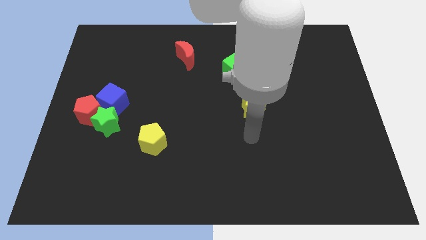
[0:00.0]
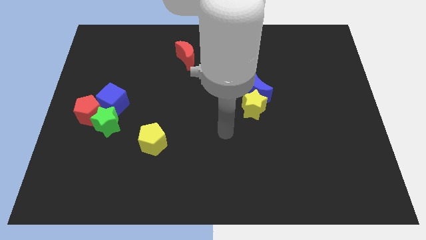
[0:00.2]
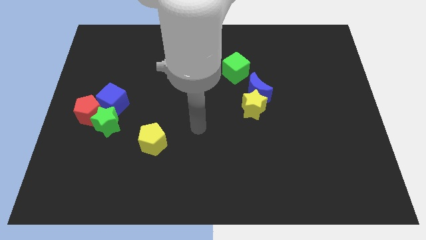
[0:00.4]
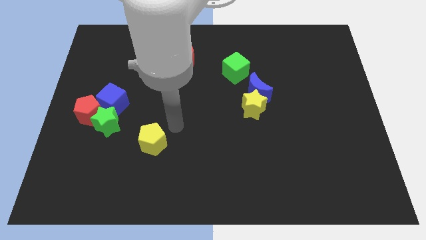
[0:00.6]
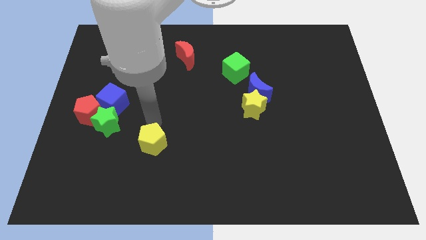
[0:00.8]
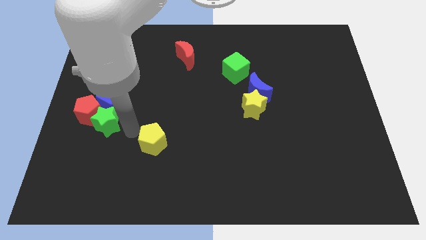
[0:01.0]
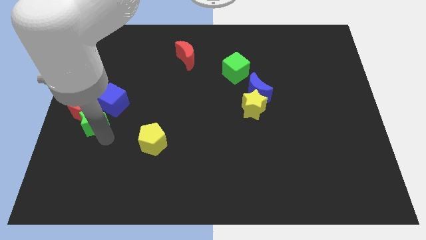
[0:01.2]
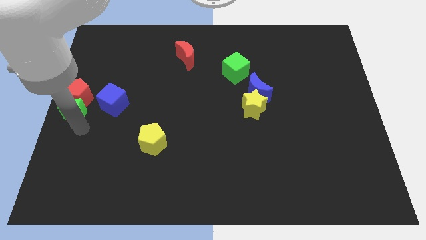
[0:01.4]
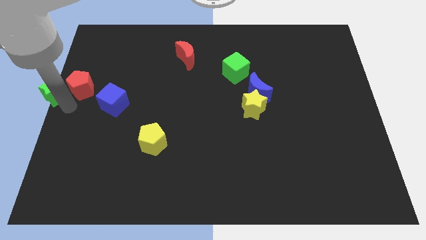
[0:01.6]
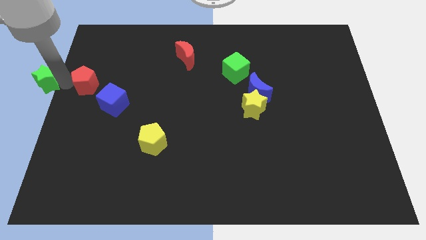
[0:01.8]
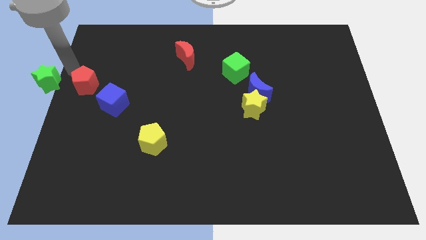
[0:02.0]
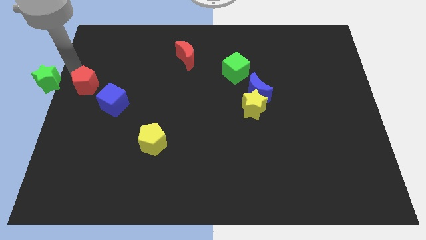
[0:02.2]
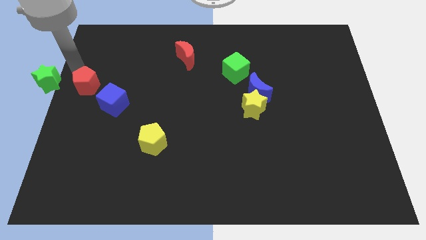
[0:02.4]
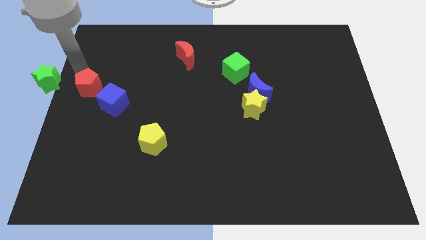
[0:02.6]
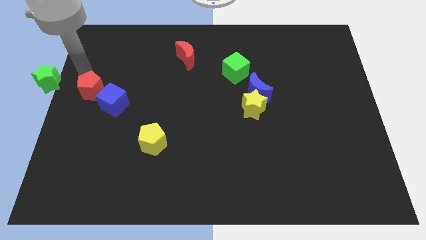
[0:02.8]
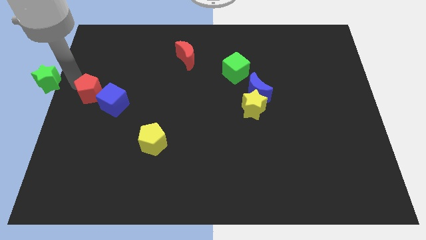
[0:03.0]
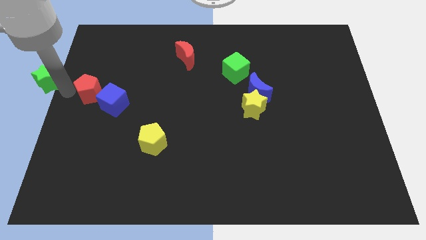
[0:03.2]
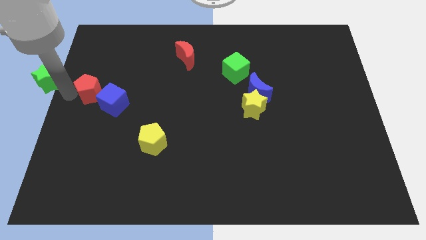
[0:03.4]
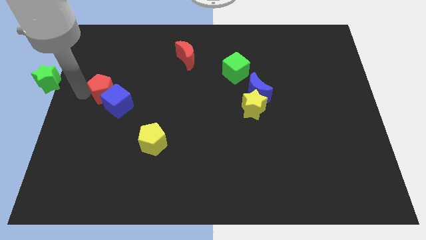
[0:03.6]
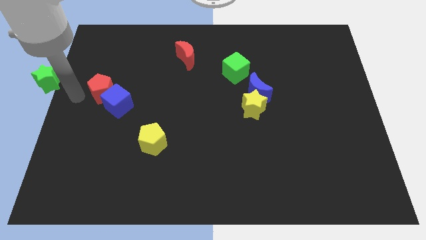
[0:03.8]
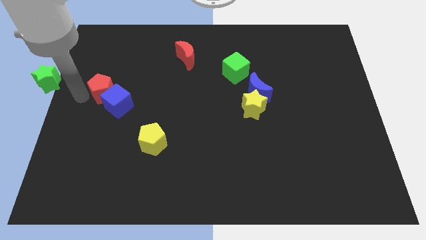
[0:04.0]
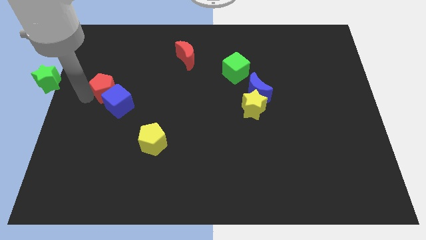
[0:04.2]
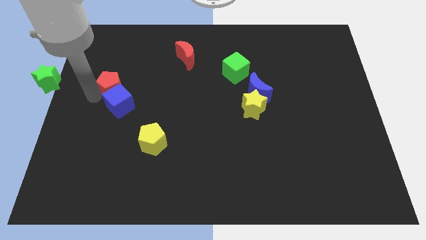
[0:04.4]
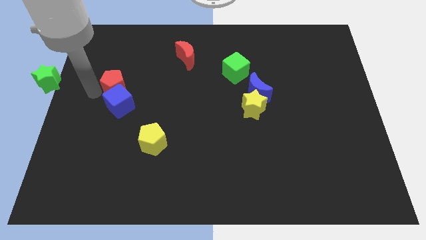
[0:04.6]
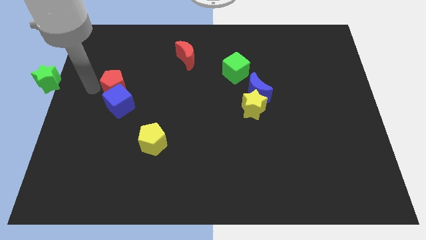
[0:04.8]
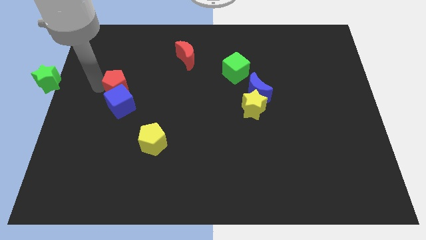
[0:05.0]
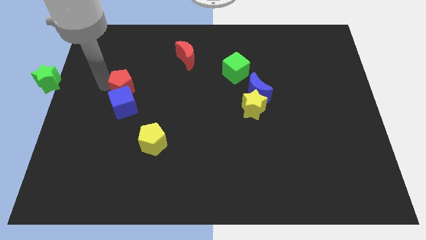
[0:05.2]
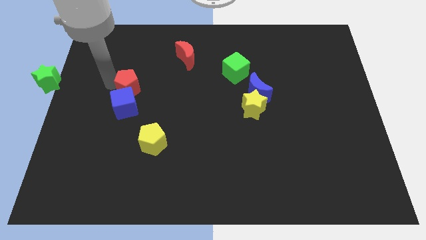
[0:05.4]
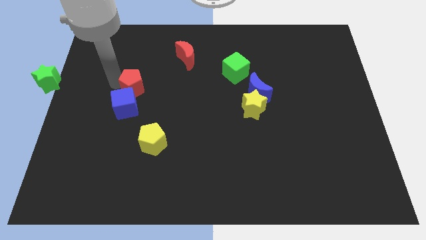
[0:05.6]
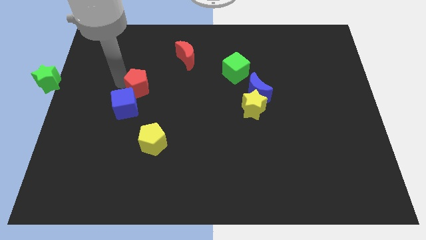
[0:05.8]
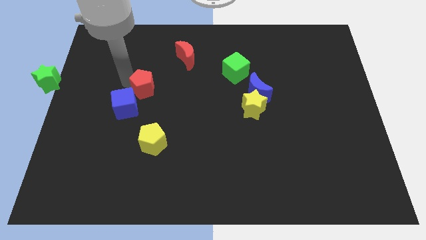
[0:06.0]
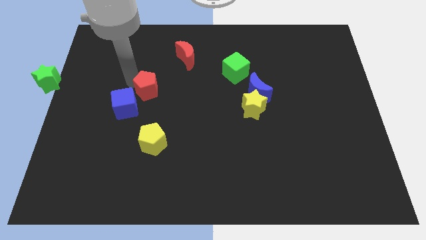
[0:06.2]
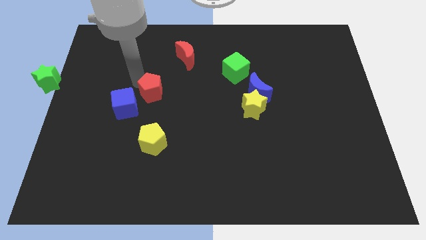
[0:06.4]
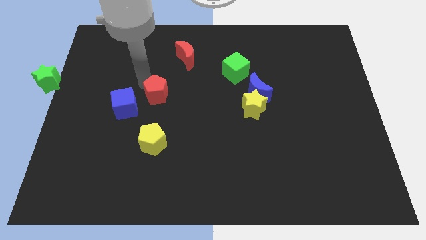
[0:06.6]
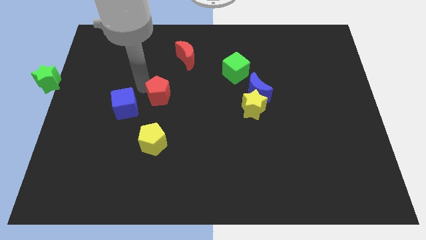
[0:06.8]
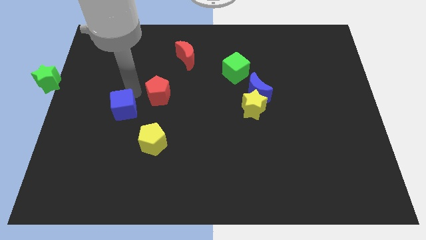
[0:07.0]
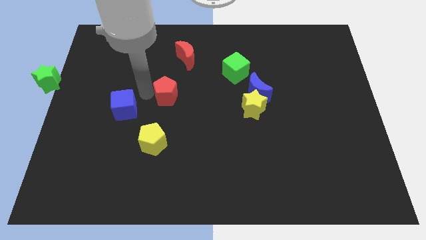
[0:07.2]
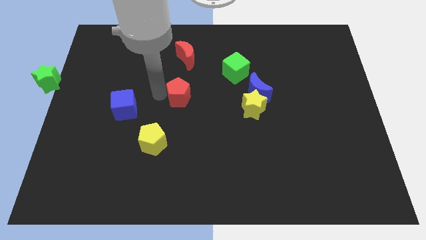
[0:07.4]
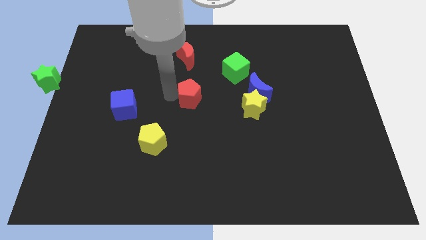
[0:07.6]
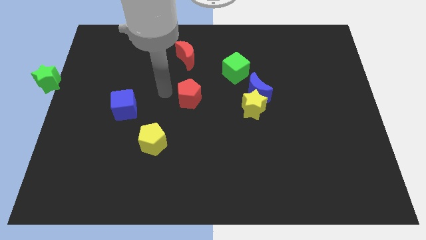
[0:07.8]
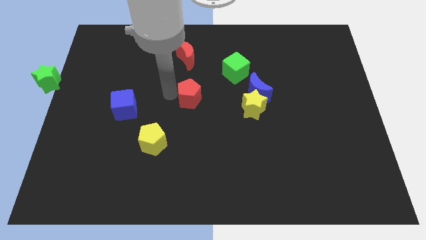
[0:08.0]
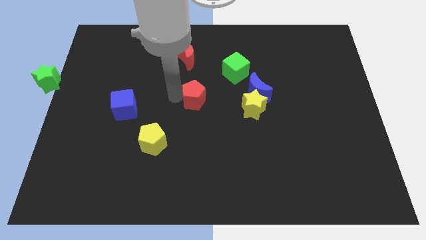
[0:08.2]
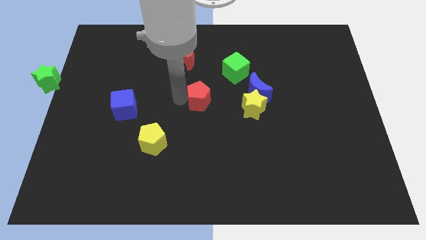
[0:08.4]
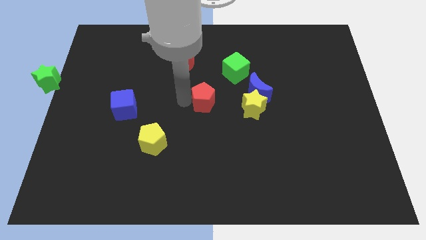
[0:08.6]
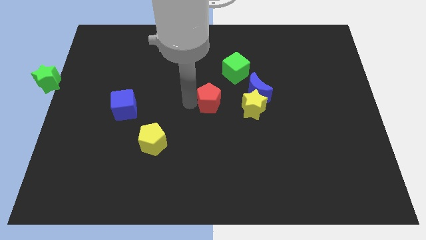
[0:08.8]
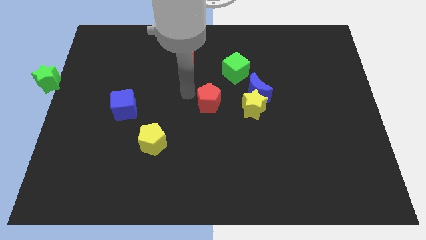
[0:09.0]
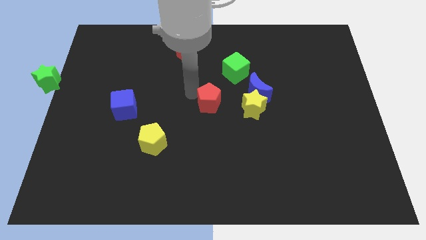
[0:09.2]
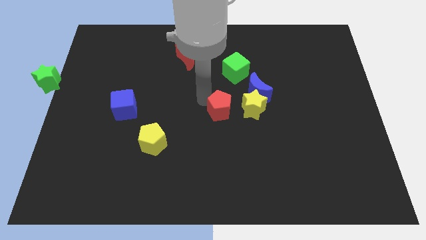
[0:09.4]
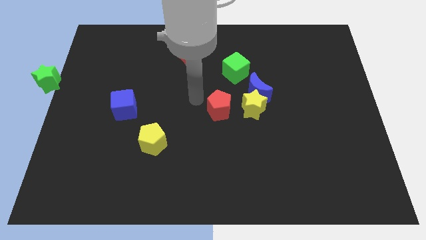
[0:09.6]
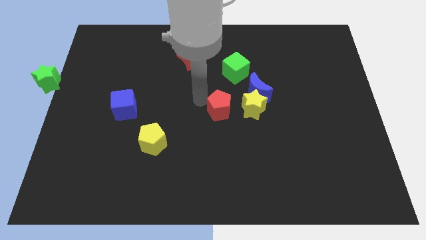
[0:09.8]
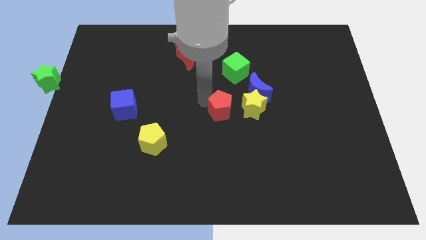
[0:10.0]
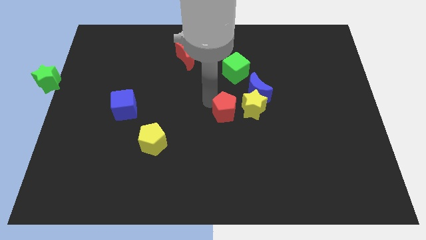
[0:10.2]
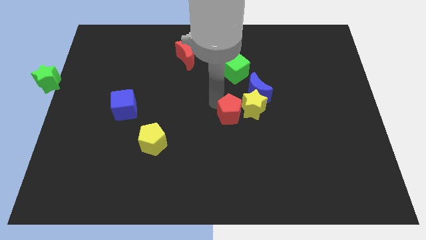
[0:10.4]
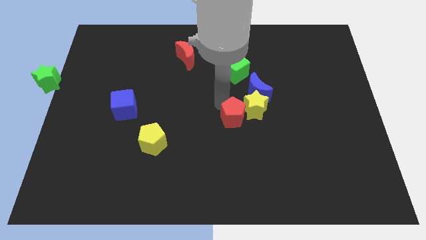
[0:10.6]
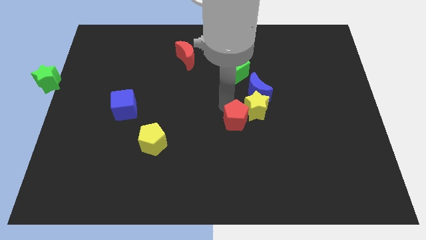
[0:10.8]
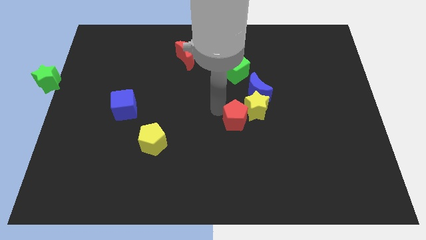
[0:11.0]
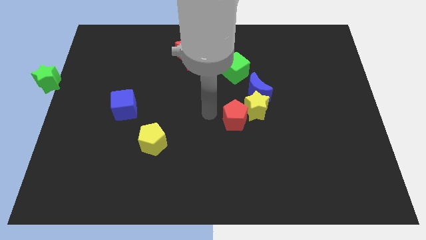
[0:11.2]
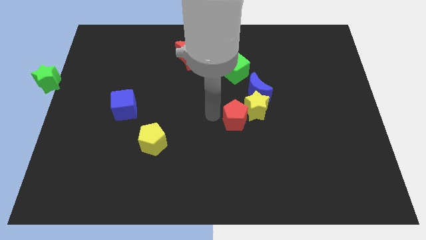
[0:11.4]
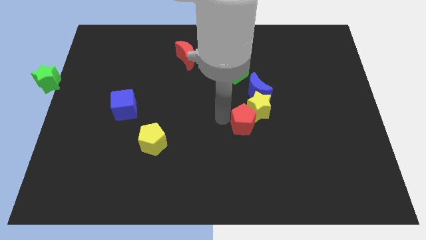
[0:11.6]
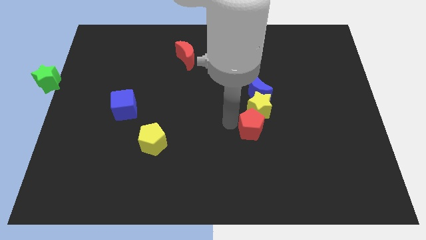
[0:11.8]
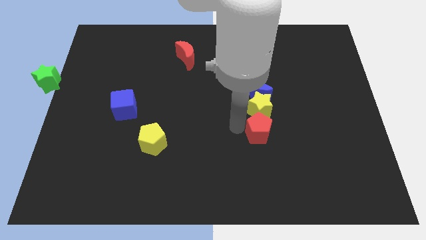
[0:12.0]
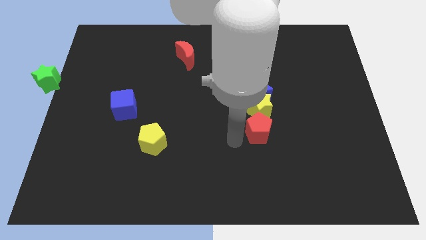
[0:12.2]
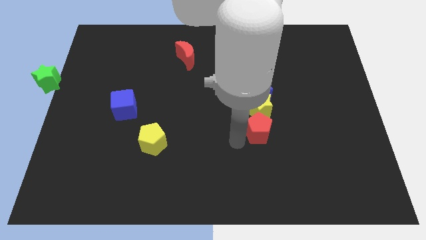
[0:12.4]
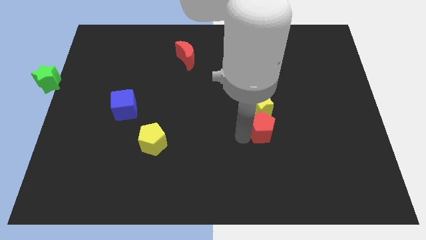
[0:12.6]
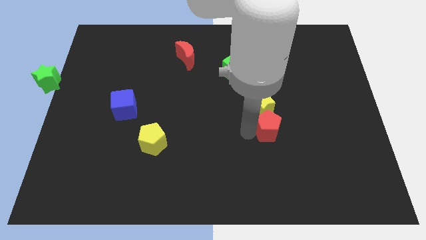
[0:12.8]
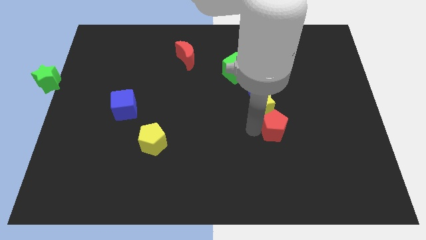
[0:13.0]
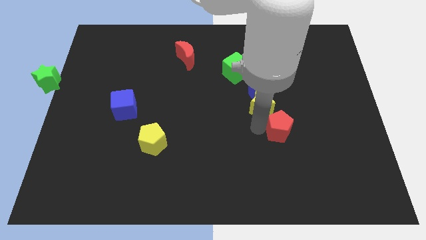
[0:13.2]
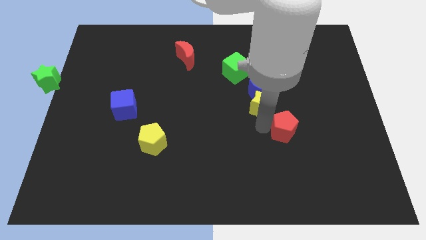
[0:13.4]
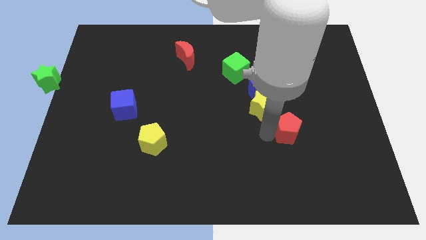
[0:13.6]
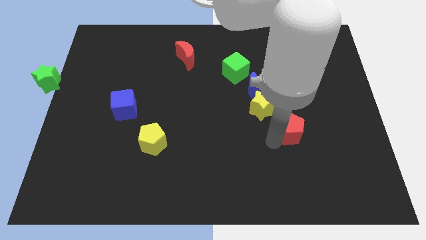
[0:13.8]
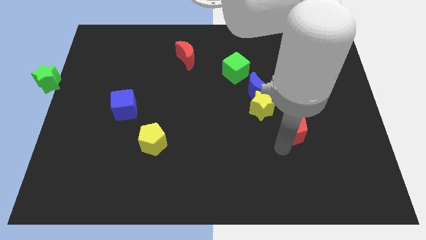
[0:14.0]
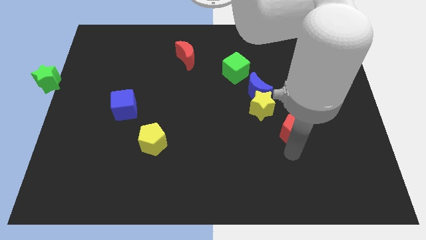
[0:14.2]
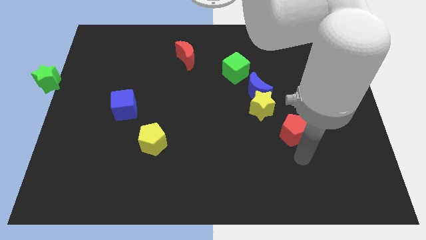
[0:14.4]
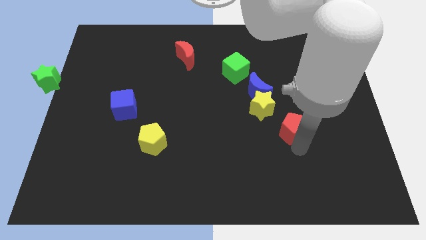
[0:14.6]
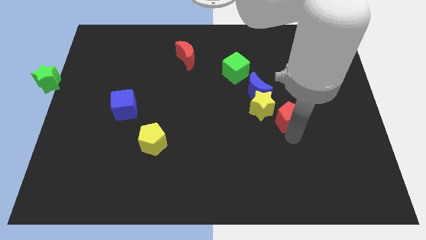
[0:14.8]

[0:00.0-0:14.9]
put the red pentagon to the right of the yellow star
